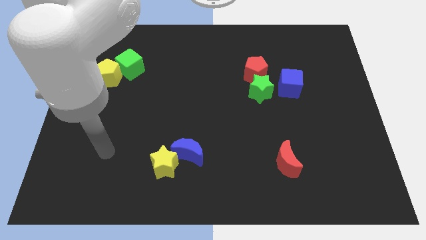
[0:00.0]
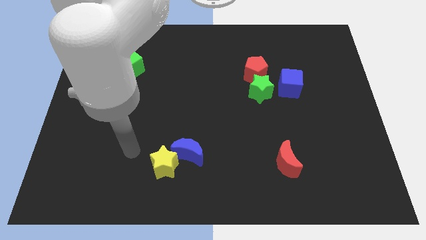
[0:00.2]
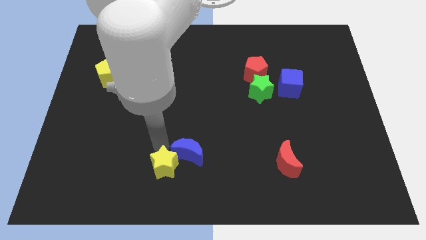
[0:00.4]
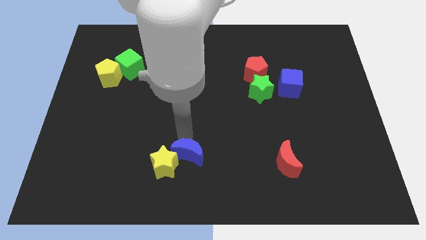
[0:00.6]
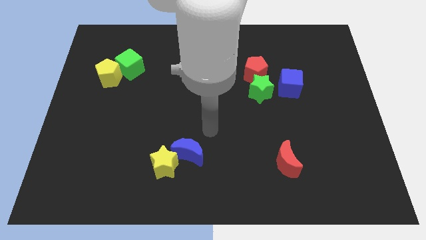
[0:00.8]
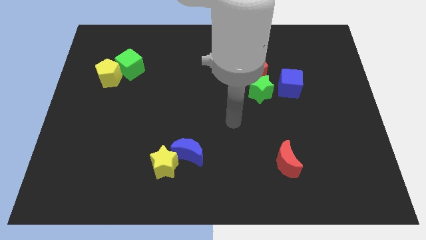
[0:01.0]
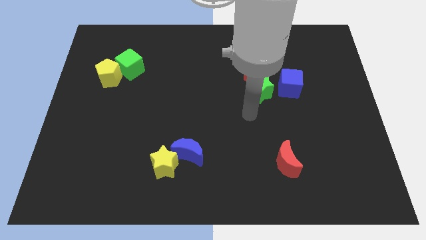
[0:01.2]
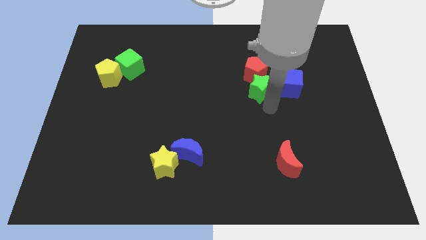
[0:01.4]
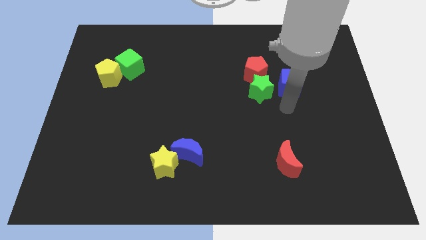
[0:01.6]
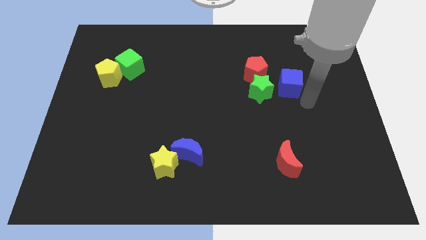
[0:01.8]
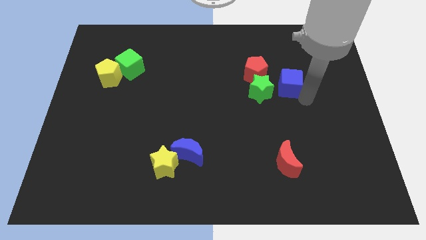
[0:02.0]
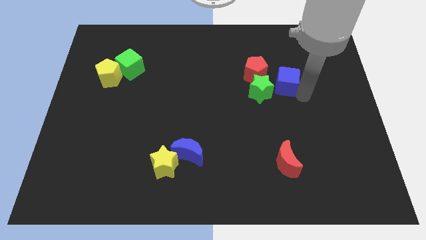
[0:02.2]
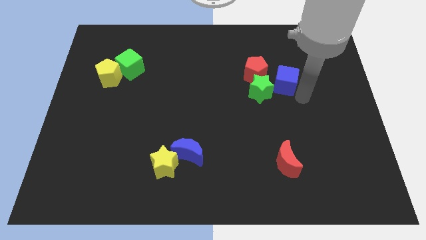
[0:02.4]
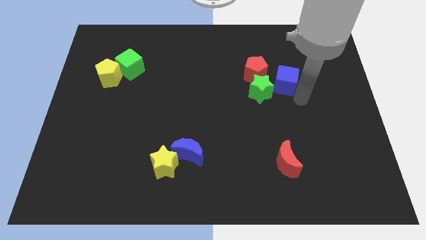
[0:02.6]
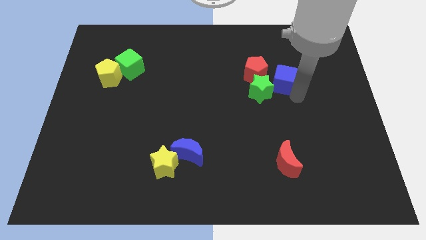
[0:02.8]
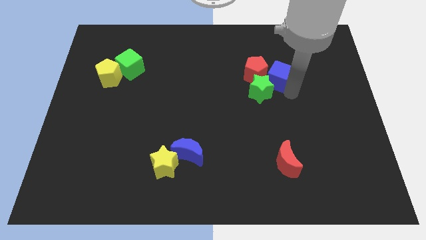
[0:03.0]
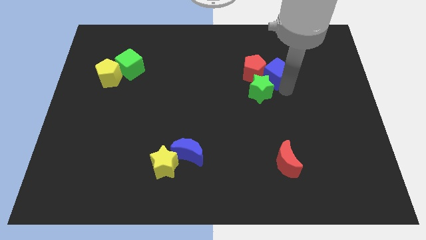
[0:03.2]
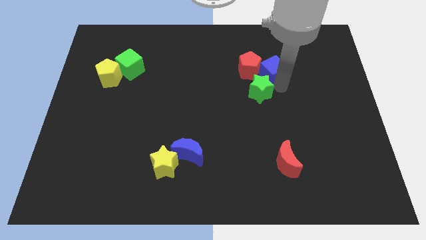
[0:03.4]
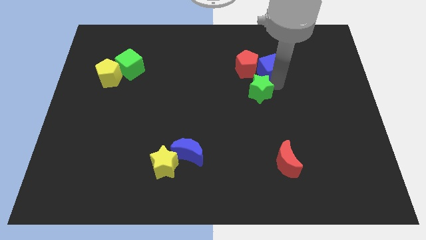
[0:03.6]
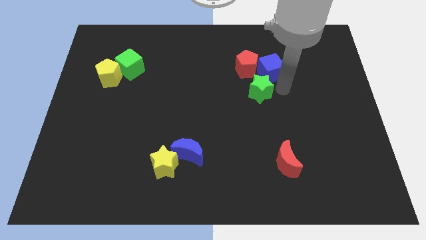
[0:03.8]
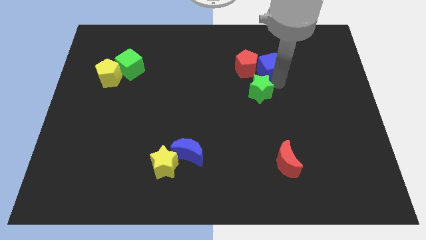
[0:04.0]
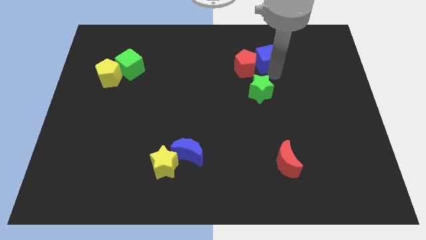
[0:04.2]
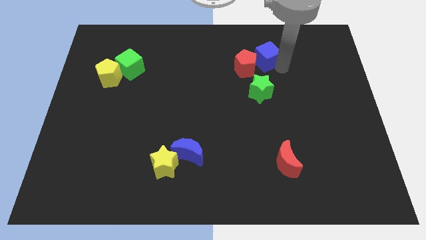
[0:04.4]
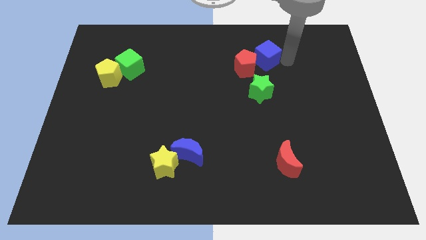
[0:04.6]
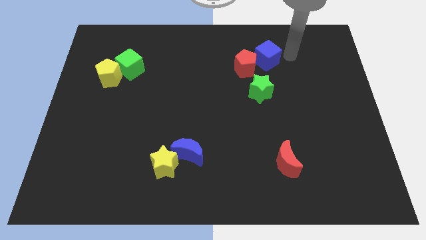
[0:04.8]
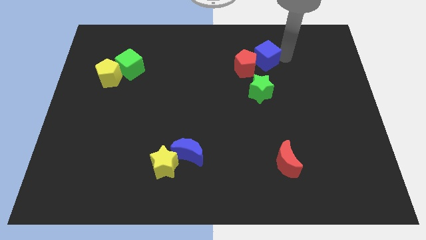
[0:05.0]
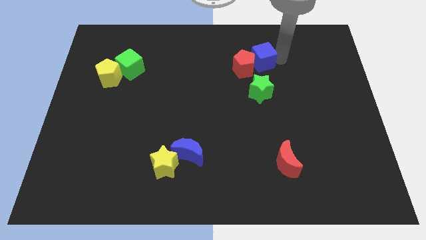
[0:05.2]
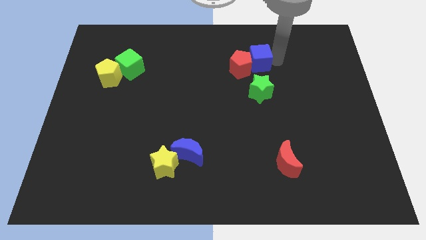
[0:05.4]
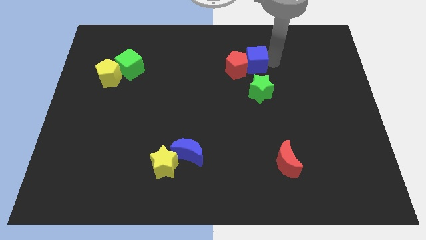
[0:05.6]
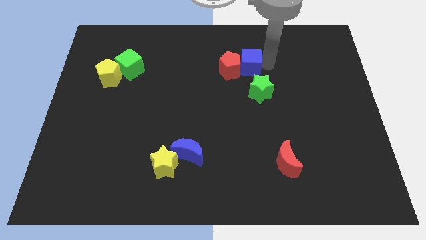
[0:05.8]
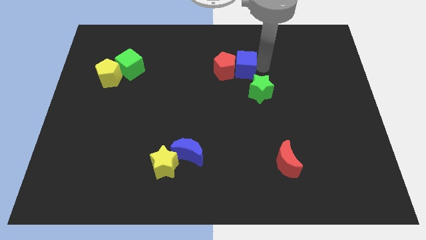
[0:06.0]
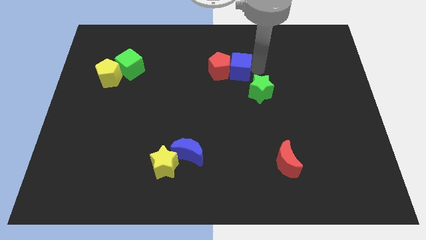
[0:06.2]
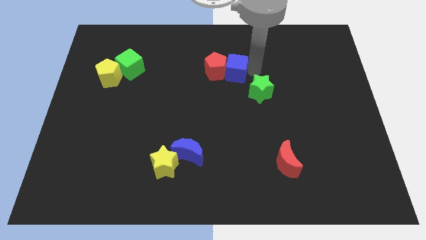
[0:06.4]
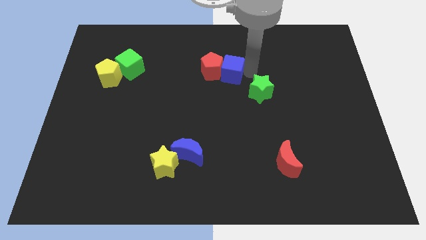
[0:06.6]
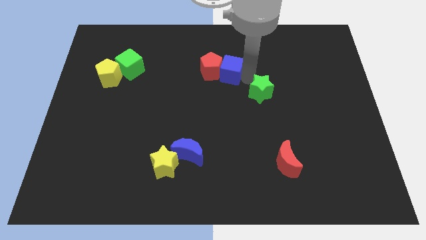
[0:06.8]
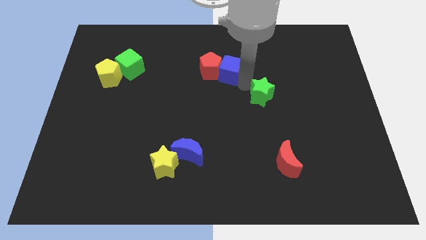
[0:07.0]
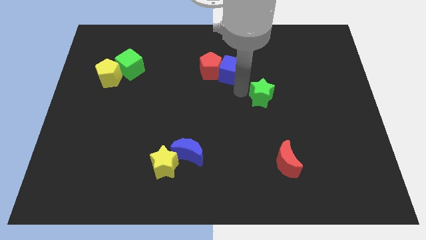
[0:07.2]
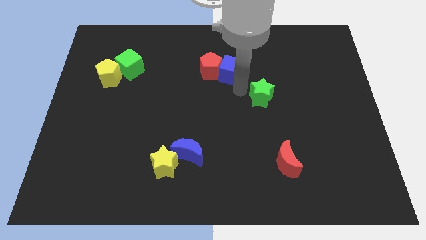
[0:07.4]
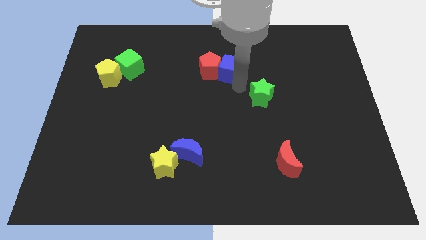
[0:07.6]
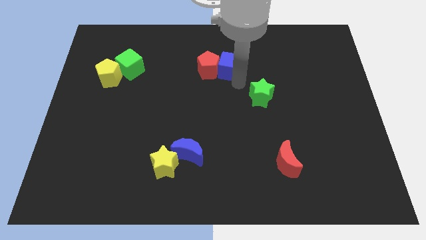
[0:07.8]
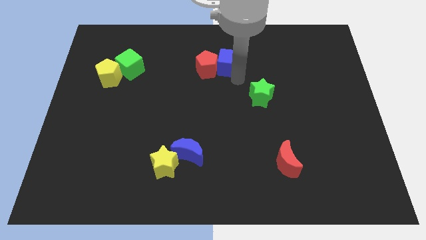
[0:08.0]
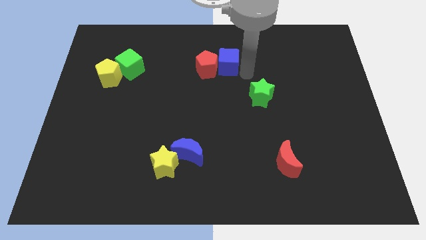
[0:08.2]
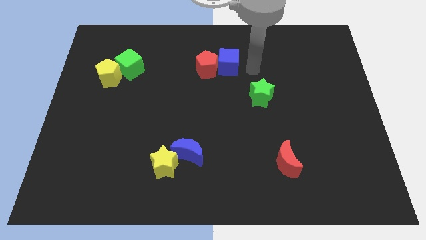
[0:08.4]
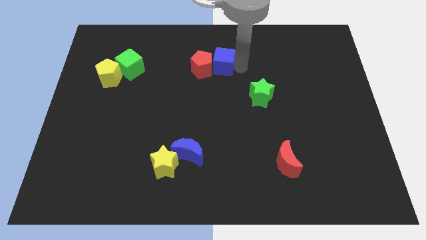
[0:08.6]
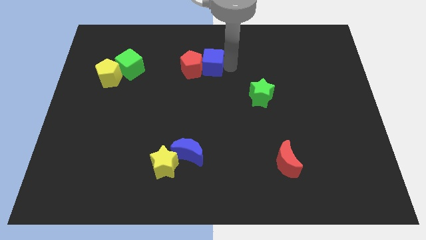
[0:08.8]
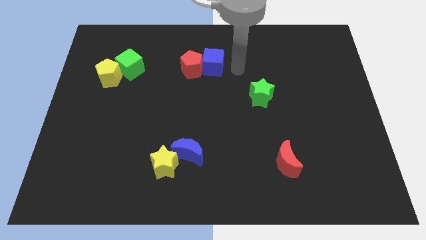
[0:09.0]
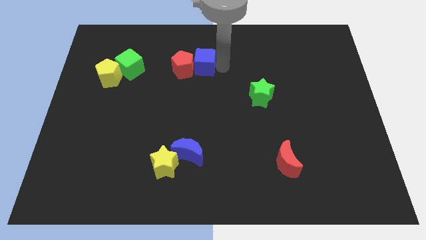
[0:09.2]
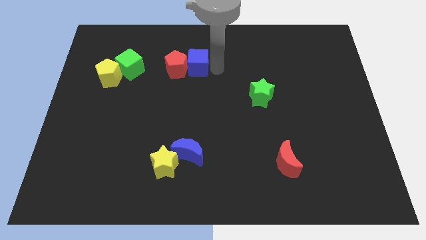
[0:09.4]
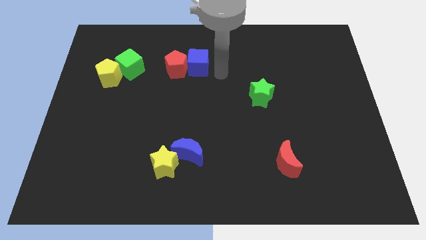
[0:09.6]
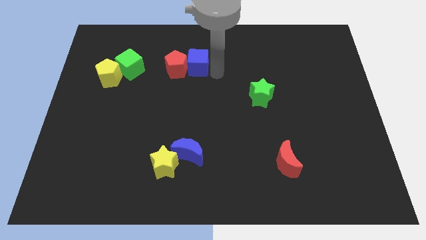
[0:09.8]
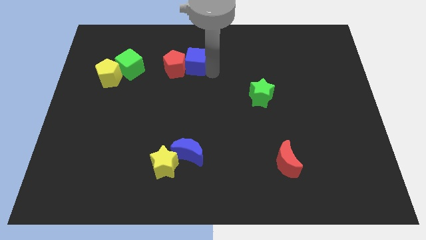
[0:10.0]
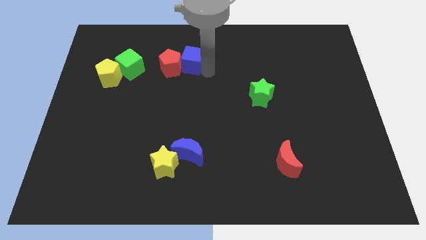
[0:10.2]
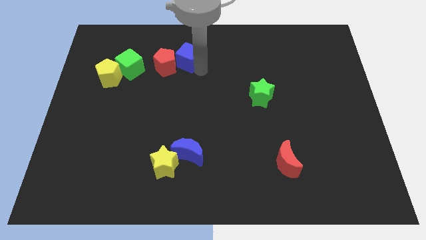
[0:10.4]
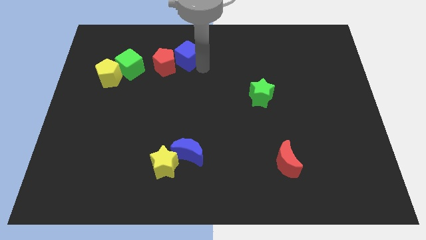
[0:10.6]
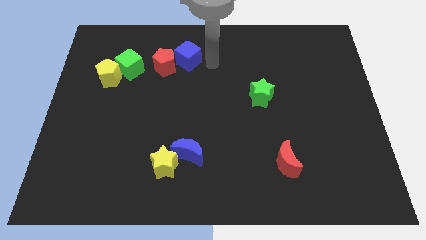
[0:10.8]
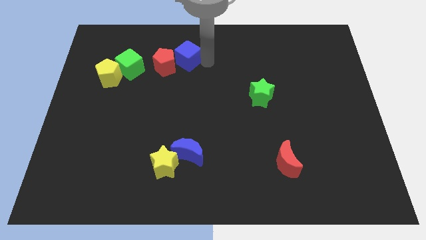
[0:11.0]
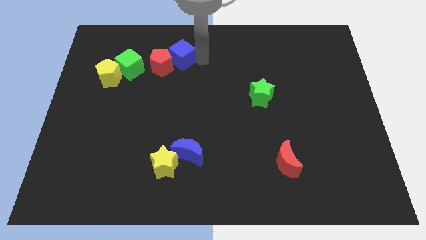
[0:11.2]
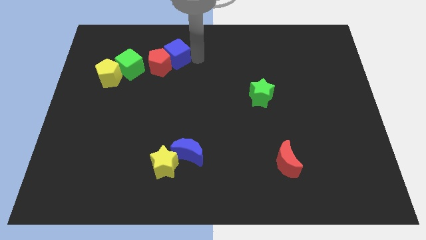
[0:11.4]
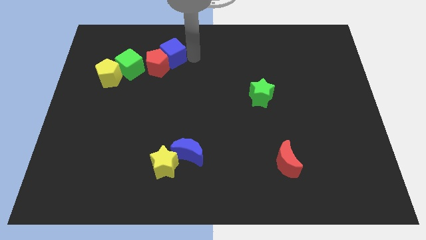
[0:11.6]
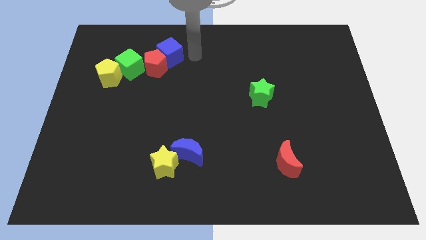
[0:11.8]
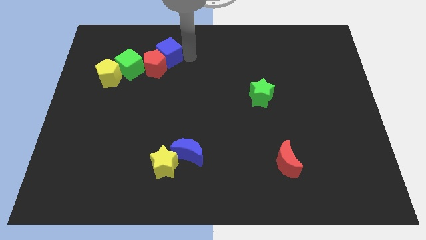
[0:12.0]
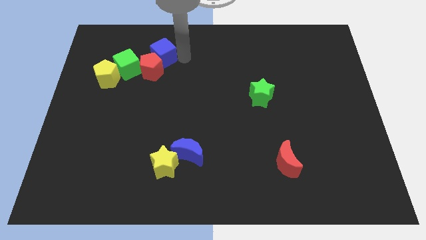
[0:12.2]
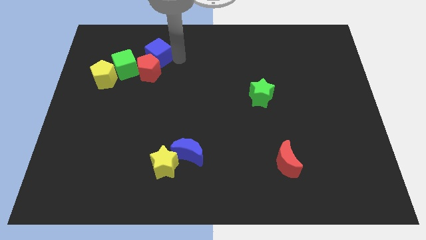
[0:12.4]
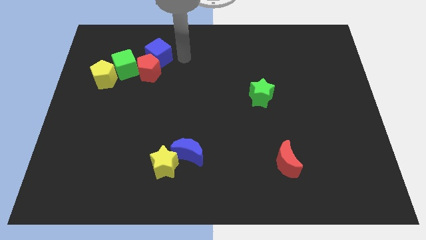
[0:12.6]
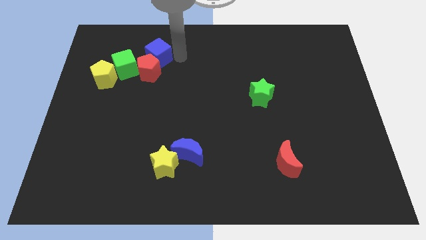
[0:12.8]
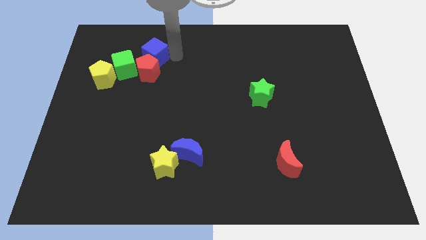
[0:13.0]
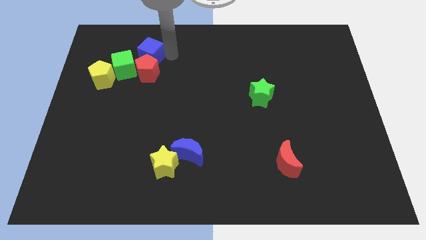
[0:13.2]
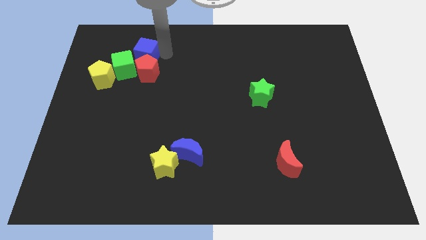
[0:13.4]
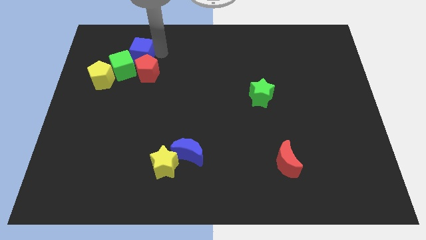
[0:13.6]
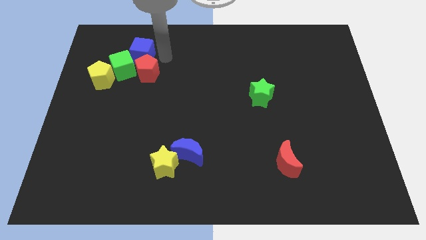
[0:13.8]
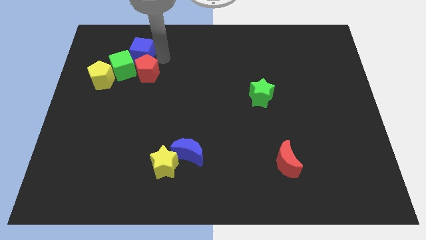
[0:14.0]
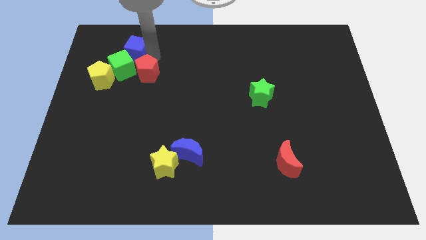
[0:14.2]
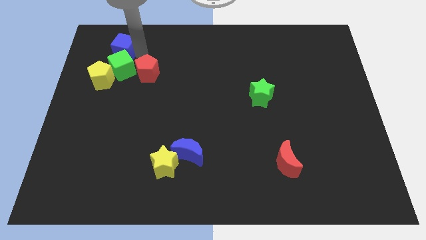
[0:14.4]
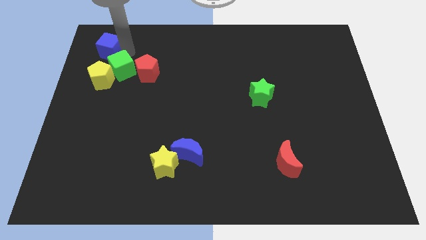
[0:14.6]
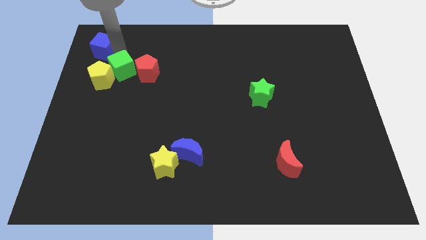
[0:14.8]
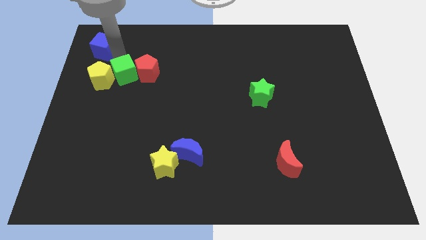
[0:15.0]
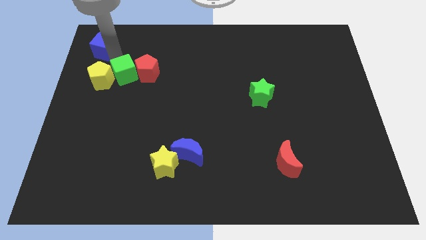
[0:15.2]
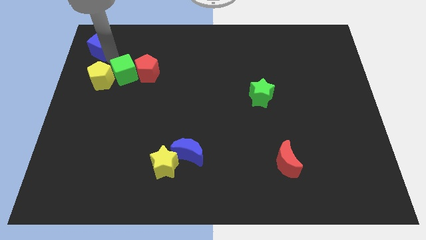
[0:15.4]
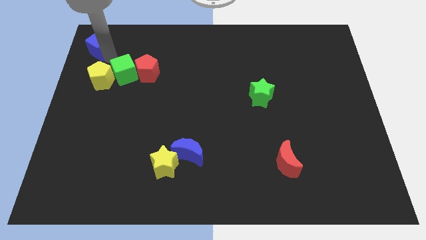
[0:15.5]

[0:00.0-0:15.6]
put the blue cube to the top left of the board
